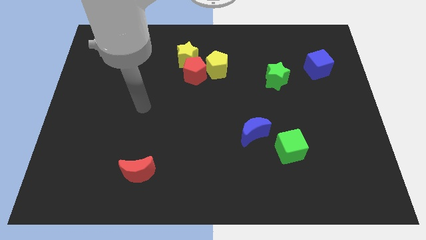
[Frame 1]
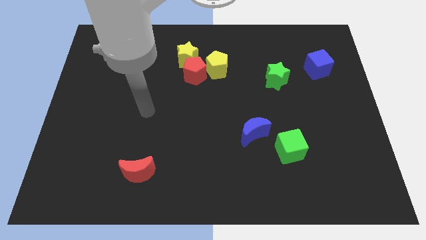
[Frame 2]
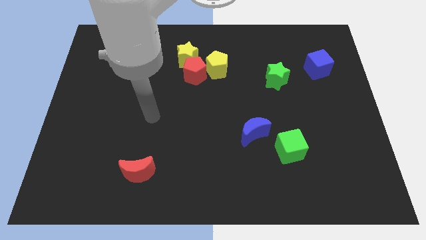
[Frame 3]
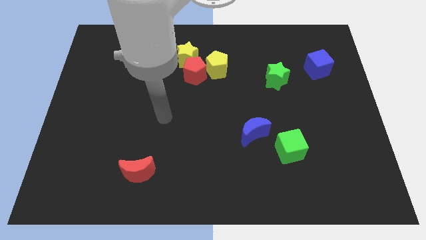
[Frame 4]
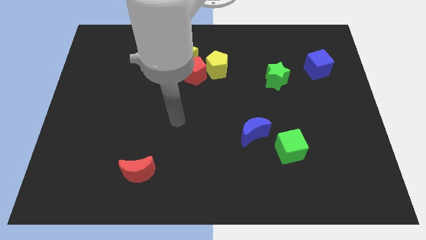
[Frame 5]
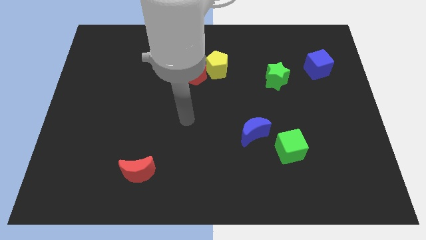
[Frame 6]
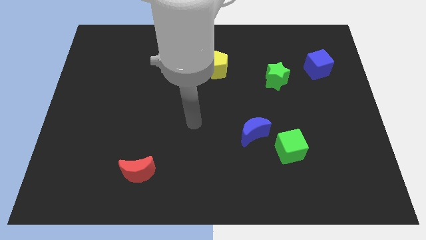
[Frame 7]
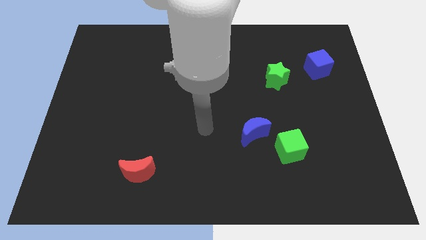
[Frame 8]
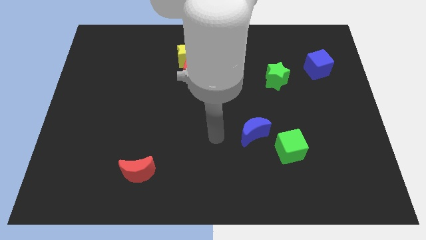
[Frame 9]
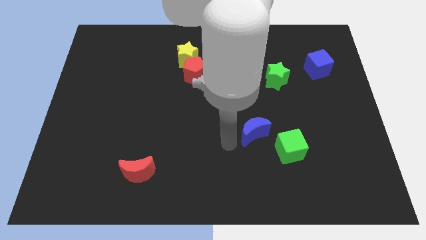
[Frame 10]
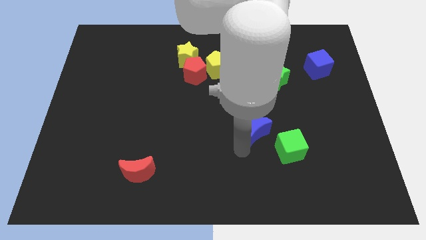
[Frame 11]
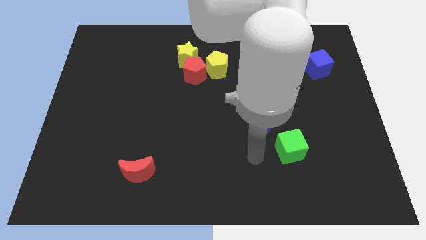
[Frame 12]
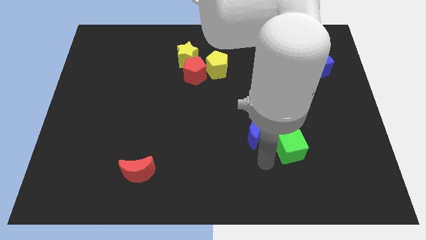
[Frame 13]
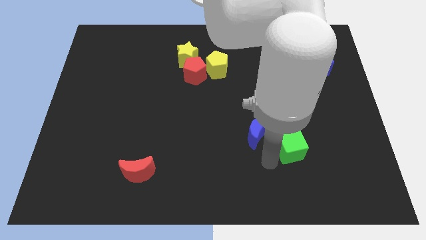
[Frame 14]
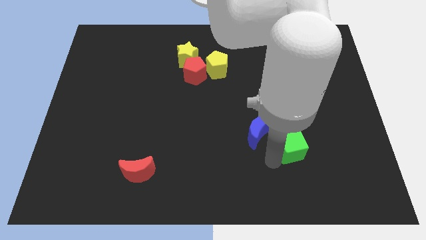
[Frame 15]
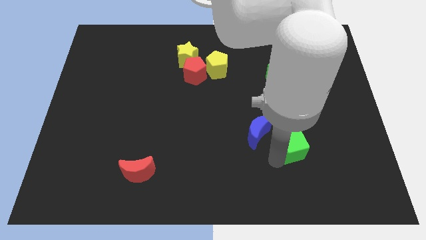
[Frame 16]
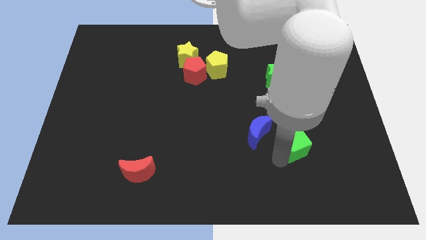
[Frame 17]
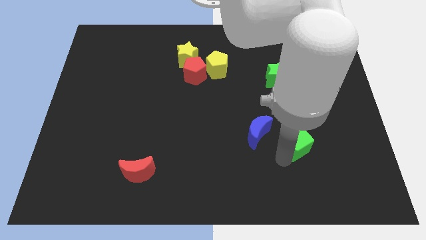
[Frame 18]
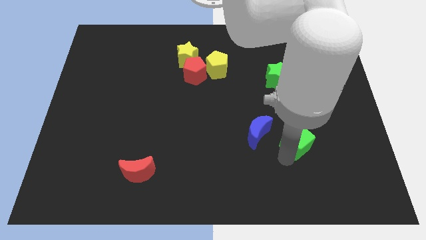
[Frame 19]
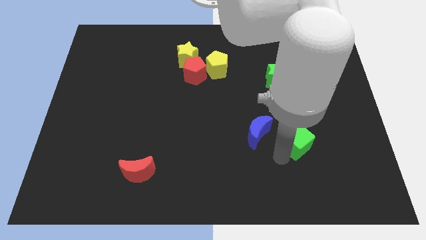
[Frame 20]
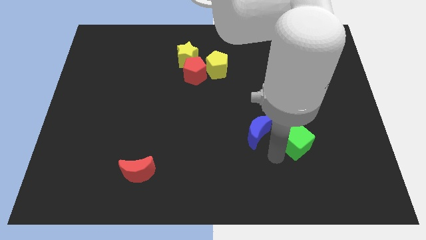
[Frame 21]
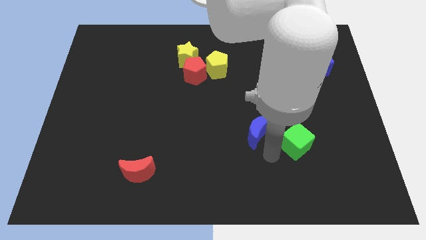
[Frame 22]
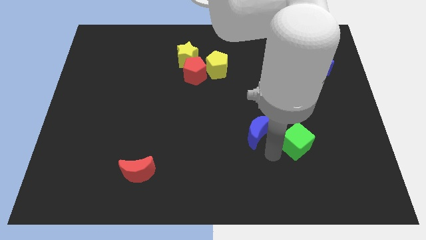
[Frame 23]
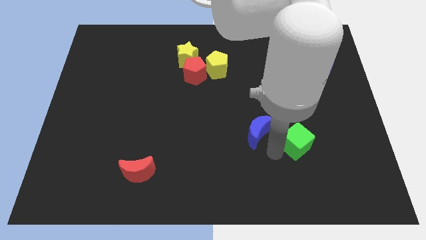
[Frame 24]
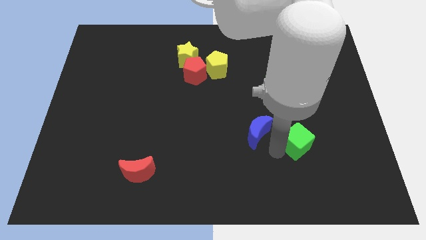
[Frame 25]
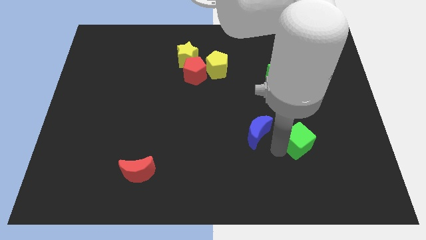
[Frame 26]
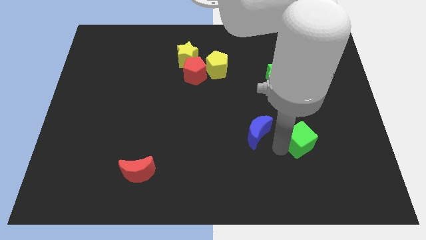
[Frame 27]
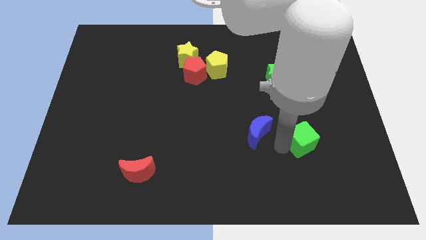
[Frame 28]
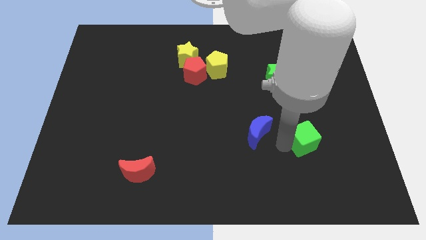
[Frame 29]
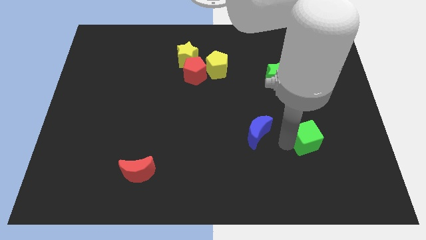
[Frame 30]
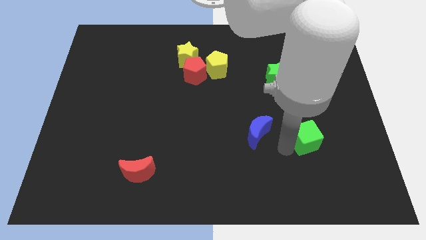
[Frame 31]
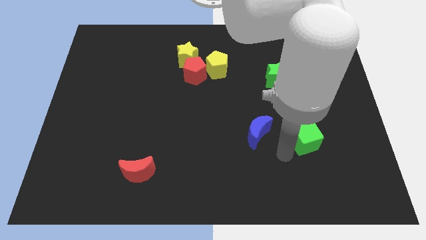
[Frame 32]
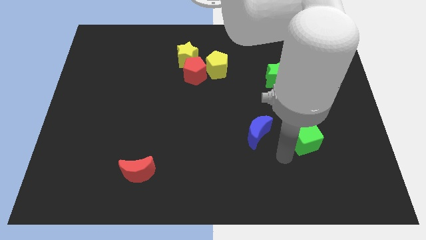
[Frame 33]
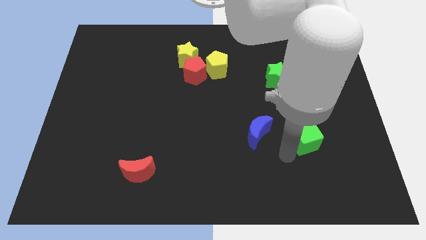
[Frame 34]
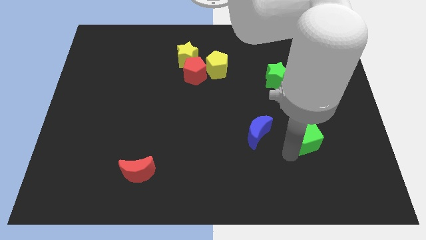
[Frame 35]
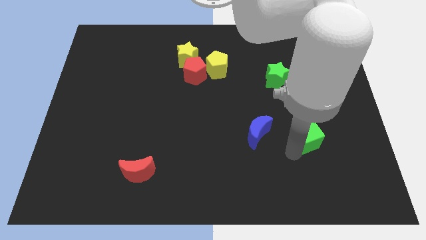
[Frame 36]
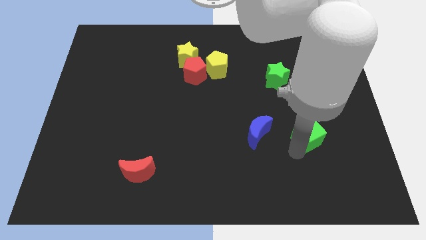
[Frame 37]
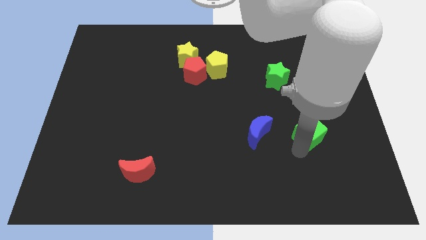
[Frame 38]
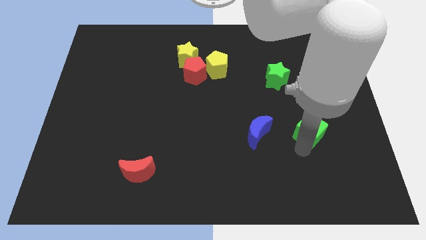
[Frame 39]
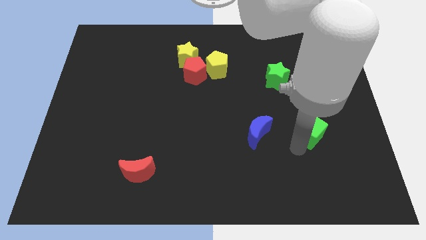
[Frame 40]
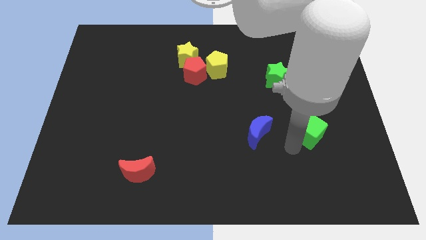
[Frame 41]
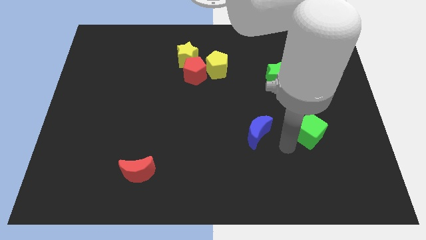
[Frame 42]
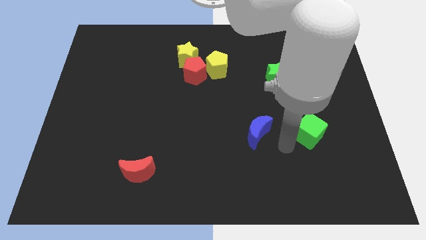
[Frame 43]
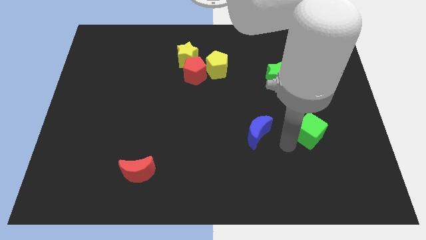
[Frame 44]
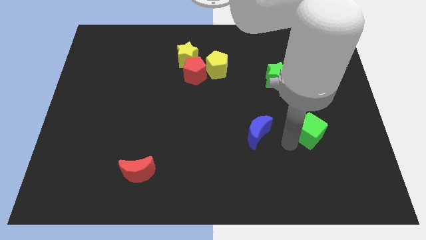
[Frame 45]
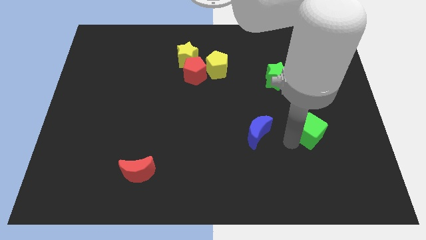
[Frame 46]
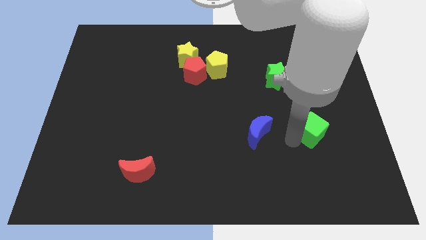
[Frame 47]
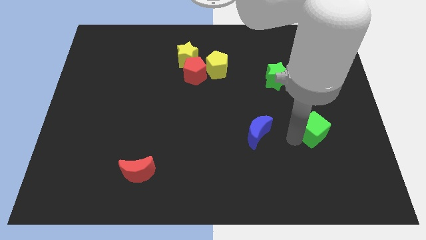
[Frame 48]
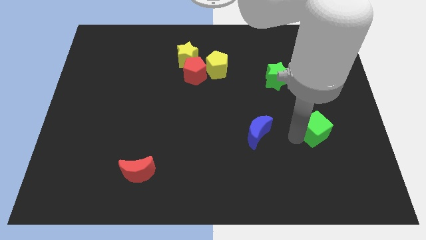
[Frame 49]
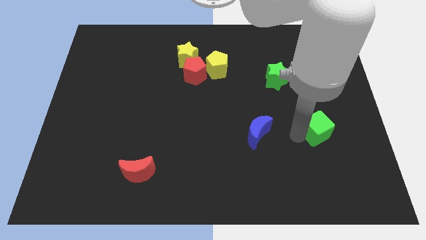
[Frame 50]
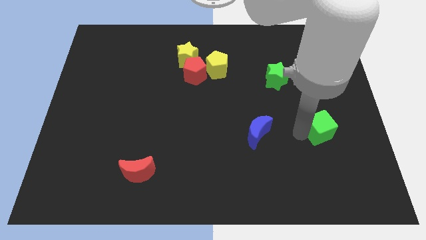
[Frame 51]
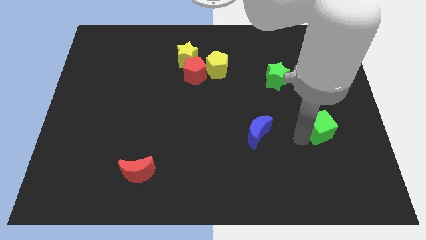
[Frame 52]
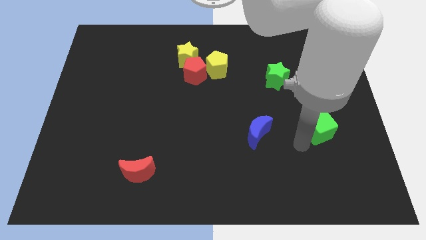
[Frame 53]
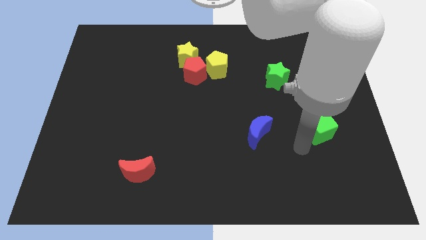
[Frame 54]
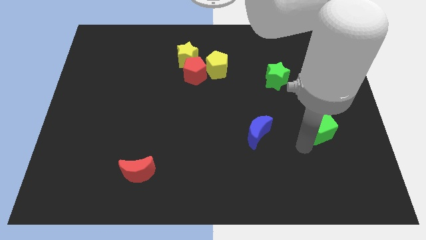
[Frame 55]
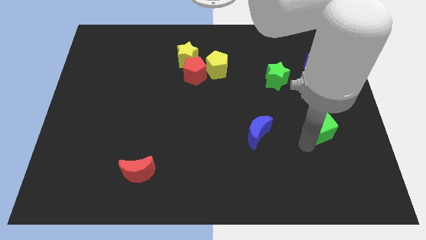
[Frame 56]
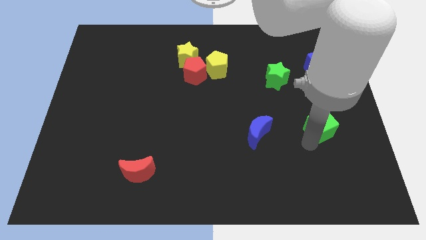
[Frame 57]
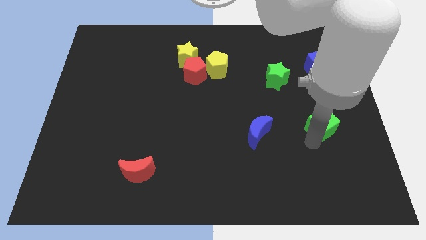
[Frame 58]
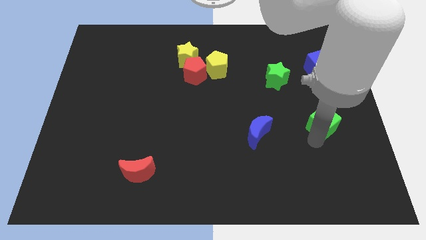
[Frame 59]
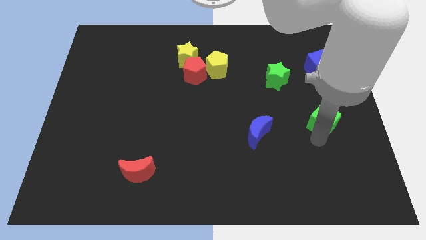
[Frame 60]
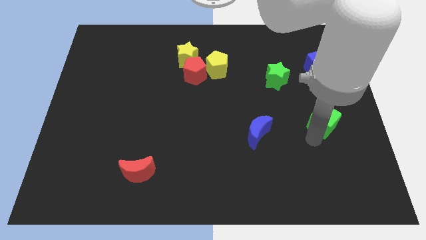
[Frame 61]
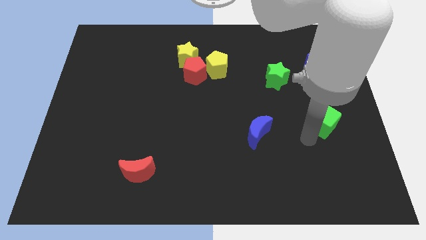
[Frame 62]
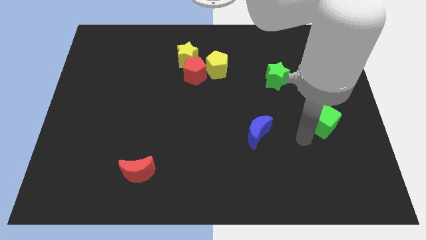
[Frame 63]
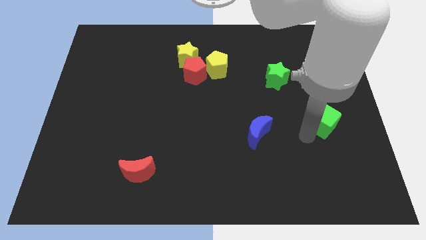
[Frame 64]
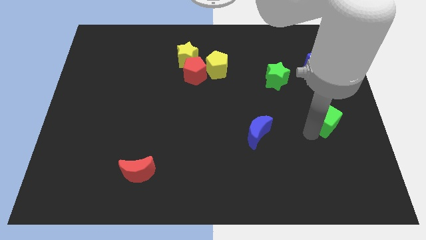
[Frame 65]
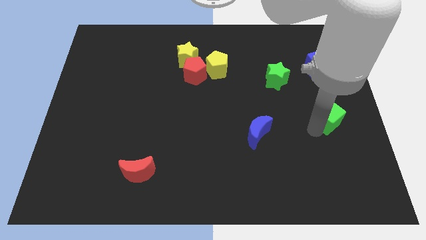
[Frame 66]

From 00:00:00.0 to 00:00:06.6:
push the green cube to the center right
